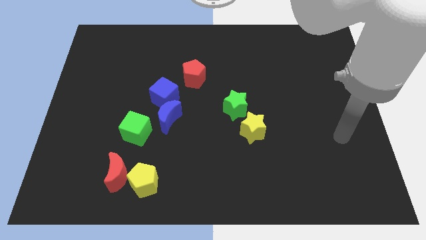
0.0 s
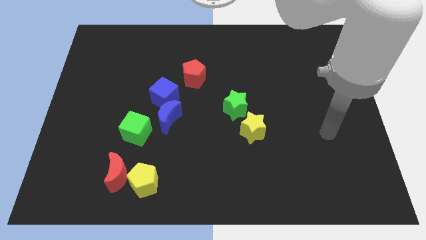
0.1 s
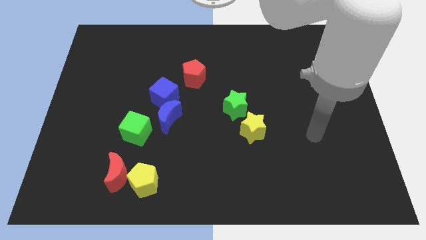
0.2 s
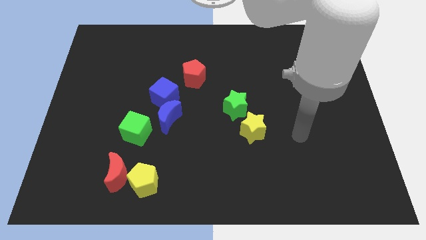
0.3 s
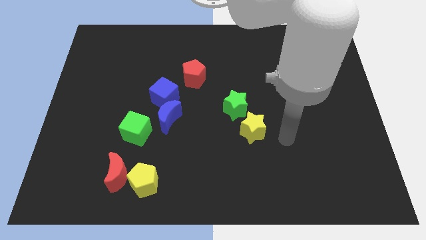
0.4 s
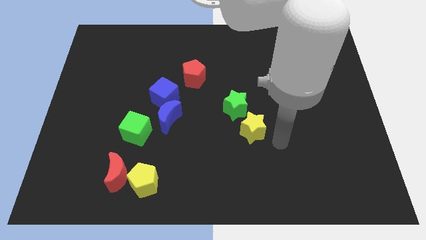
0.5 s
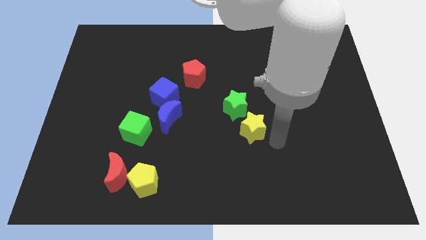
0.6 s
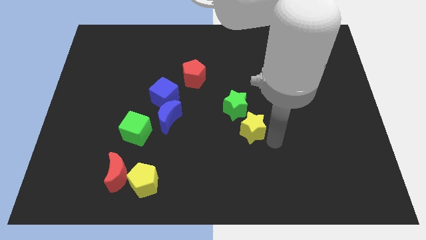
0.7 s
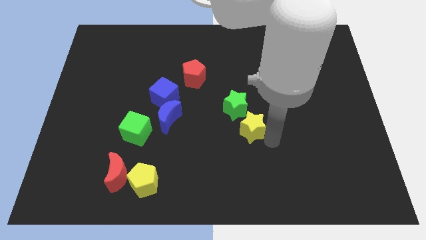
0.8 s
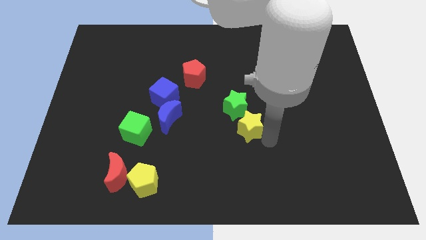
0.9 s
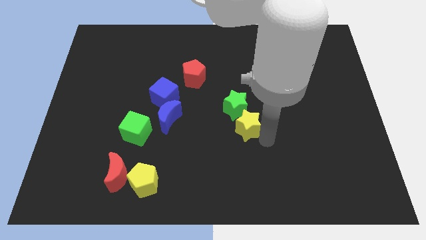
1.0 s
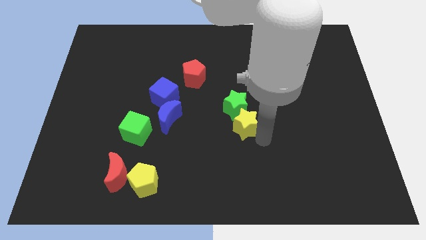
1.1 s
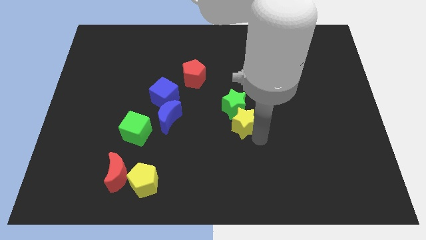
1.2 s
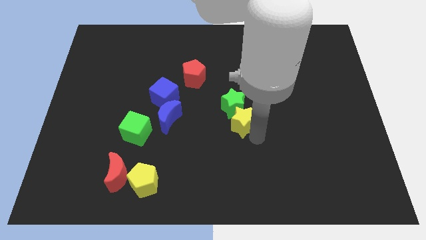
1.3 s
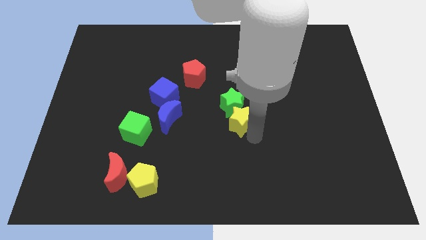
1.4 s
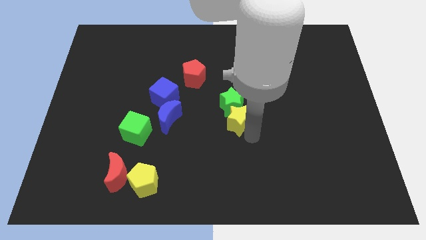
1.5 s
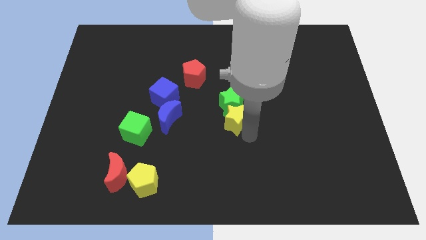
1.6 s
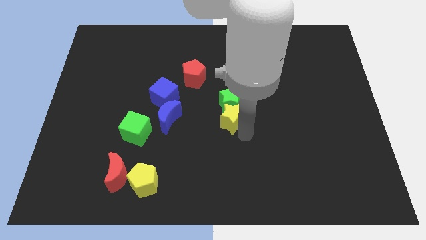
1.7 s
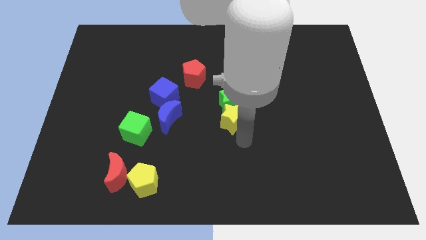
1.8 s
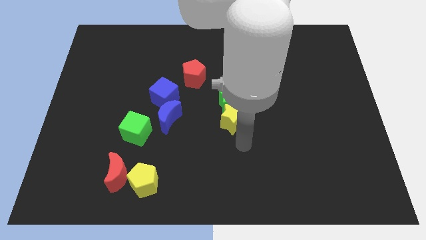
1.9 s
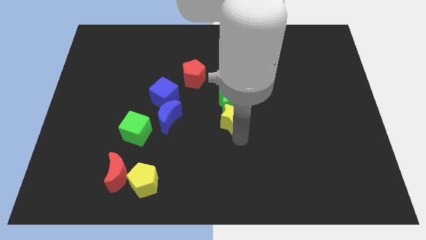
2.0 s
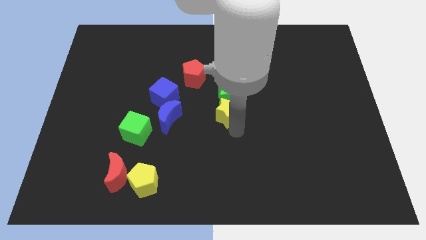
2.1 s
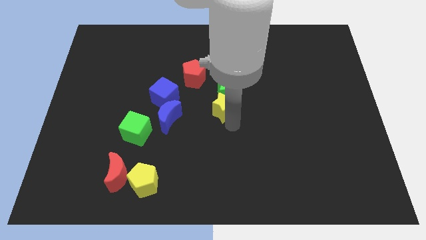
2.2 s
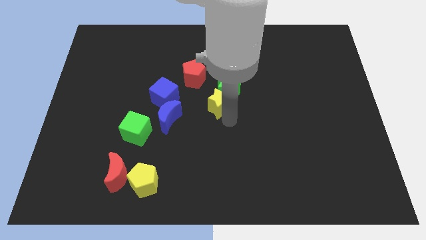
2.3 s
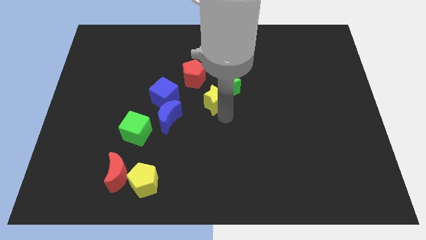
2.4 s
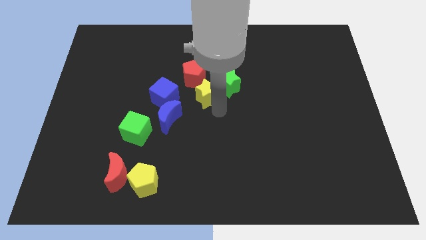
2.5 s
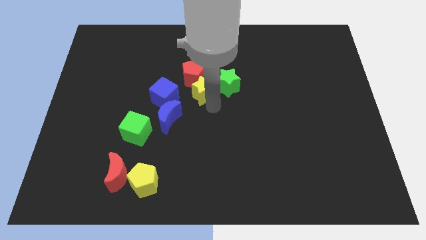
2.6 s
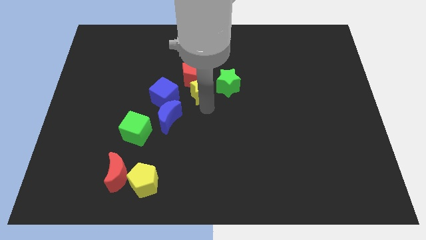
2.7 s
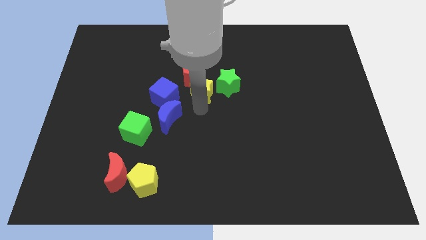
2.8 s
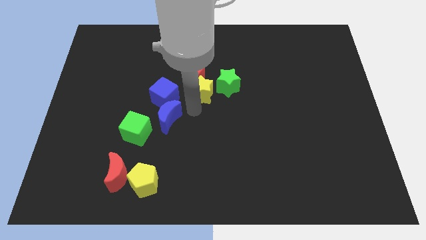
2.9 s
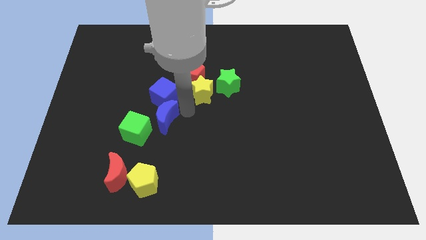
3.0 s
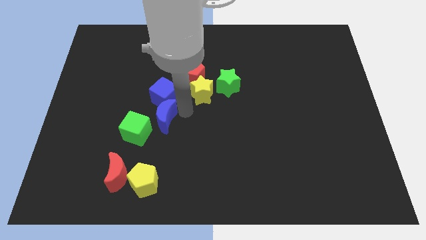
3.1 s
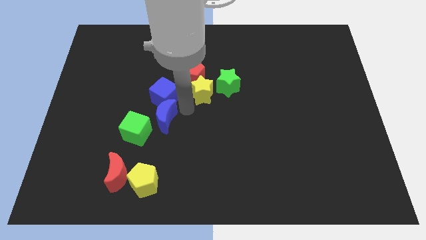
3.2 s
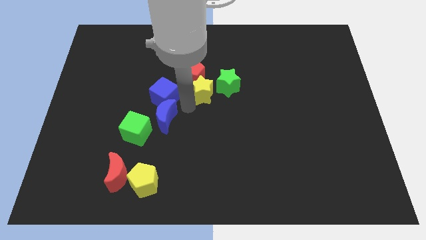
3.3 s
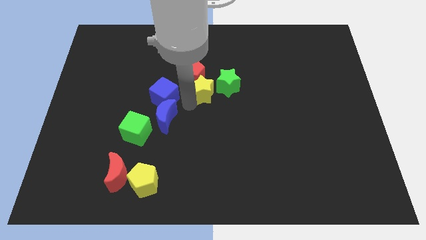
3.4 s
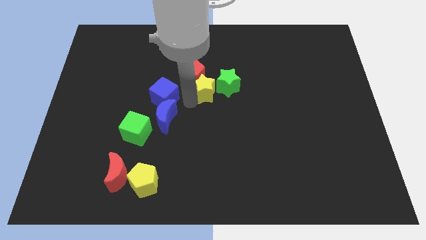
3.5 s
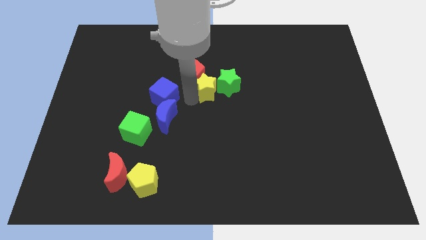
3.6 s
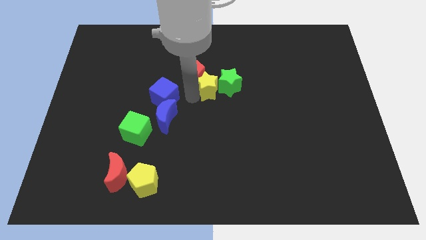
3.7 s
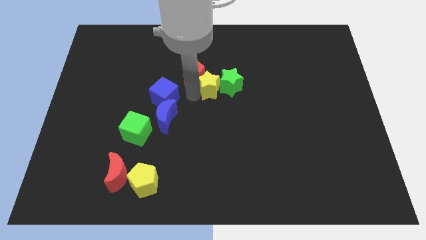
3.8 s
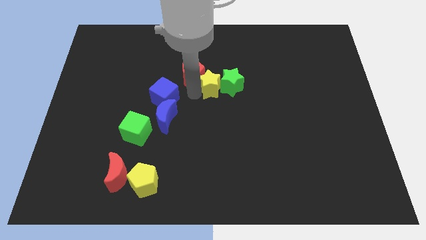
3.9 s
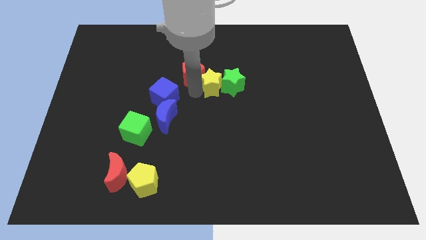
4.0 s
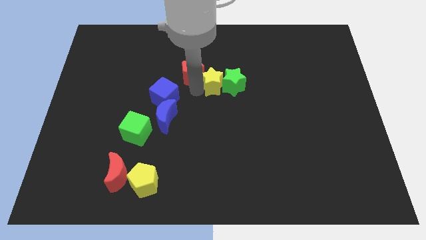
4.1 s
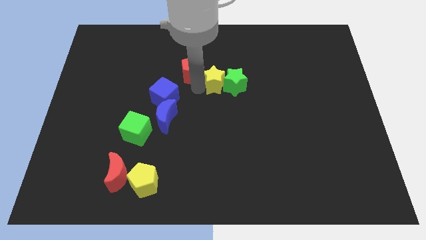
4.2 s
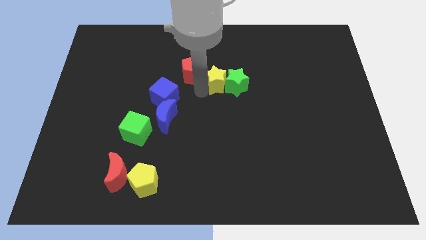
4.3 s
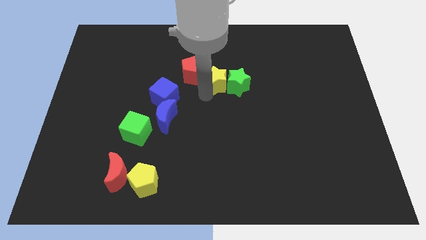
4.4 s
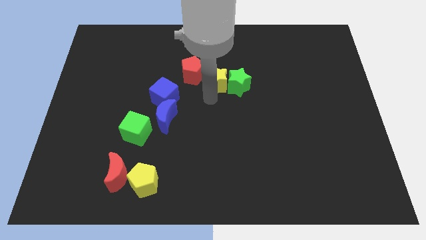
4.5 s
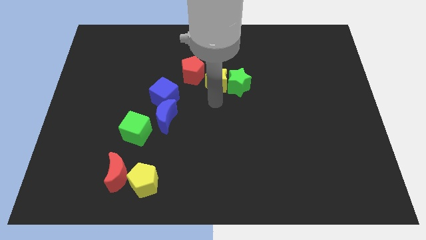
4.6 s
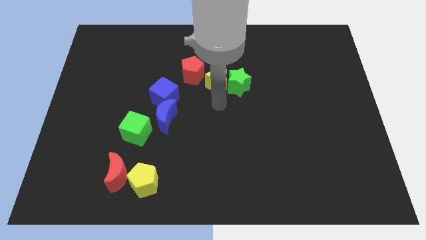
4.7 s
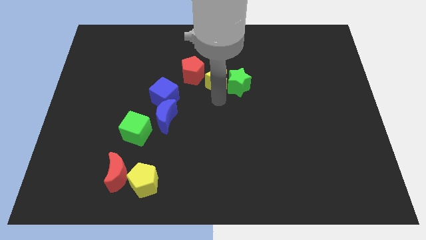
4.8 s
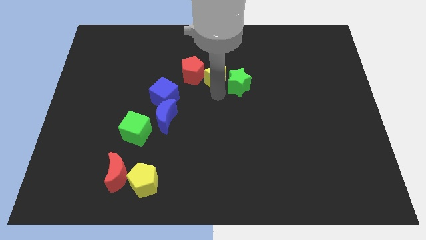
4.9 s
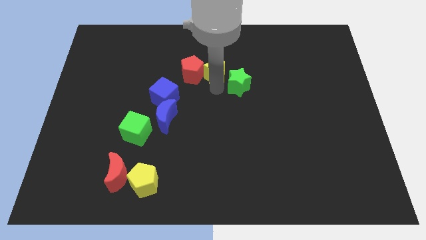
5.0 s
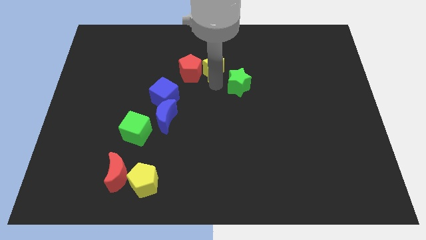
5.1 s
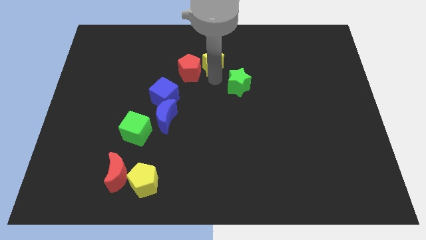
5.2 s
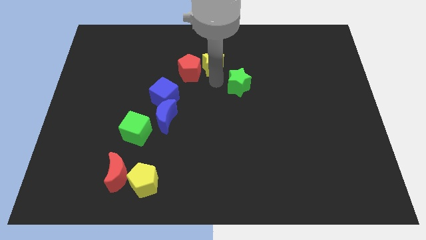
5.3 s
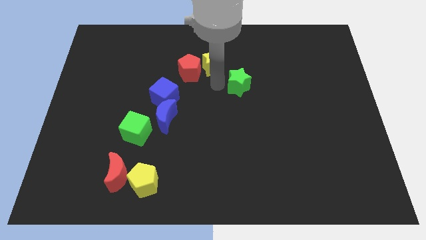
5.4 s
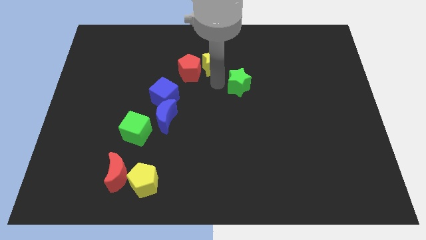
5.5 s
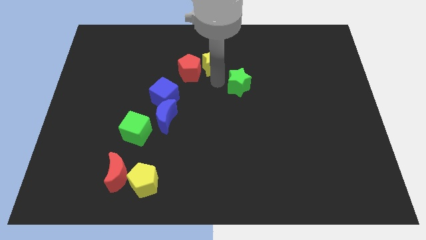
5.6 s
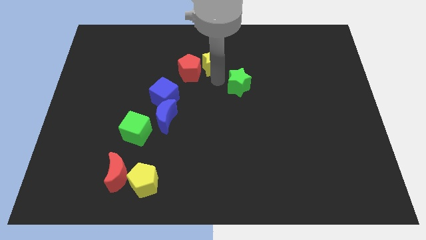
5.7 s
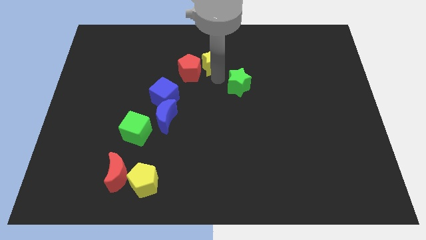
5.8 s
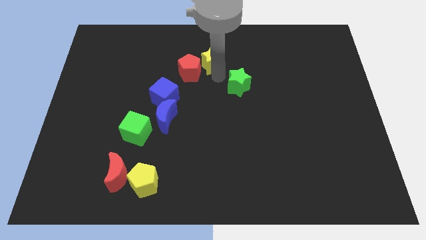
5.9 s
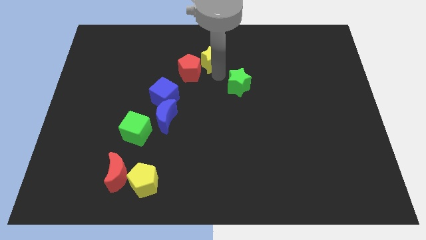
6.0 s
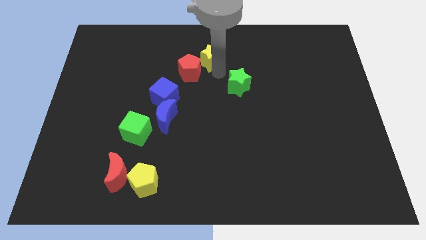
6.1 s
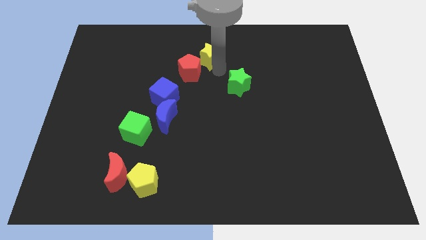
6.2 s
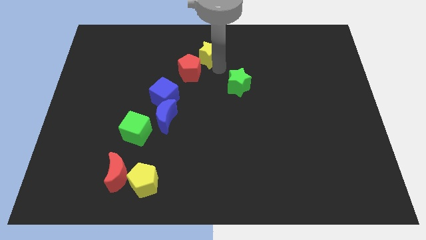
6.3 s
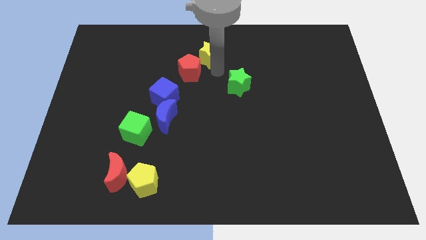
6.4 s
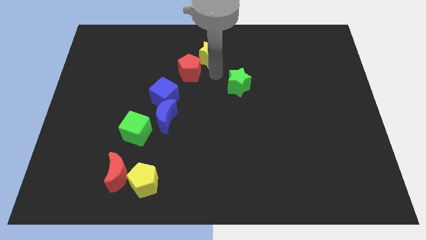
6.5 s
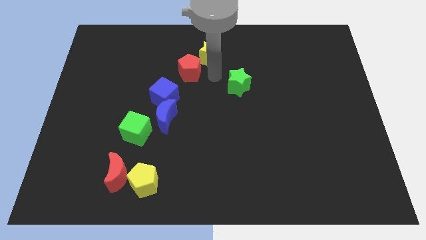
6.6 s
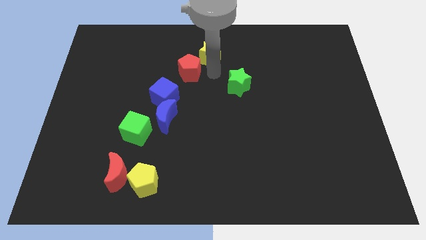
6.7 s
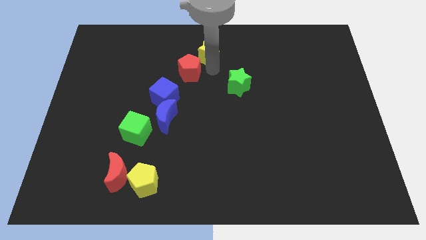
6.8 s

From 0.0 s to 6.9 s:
put the yellow star to the top side
